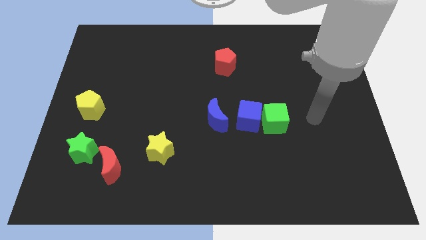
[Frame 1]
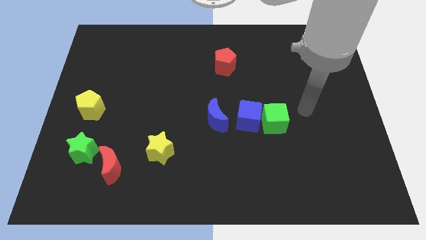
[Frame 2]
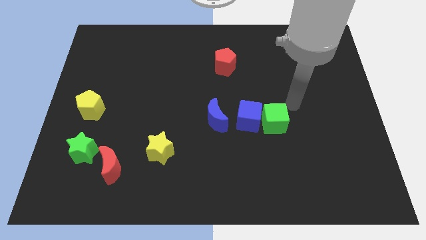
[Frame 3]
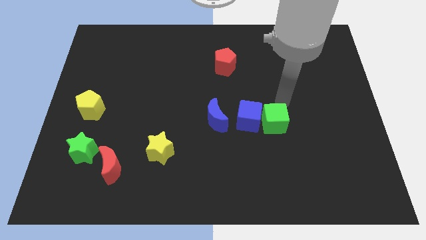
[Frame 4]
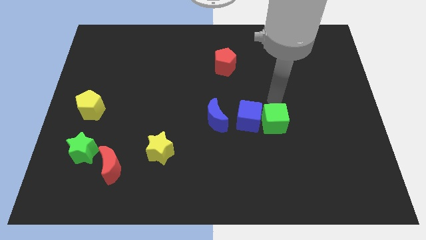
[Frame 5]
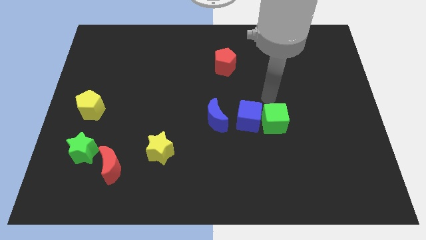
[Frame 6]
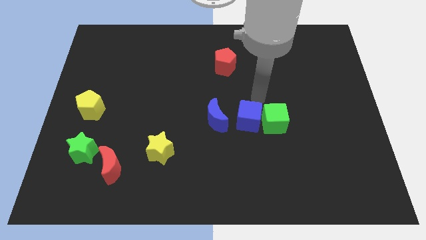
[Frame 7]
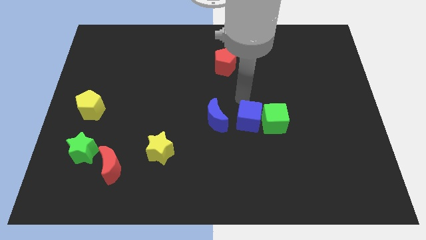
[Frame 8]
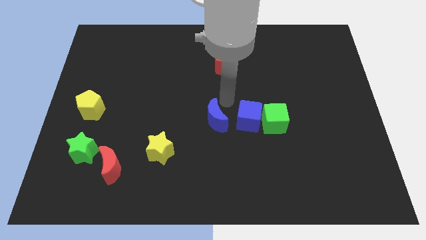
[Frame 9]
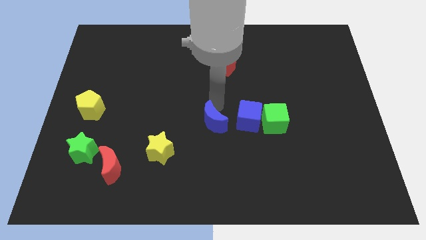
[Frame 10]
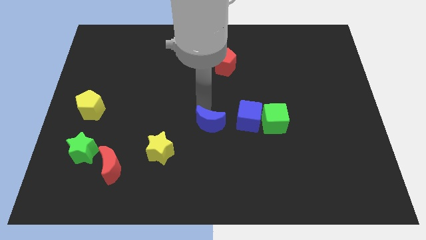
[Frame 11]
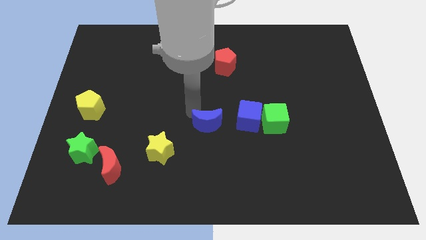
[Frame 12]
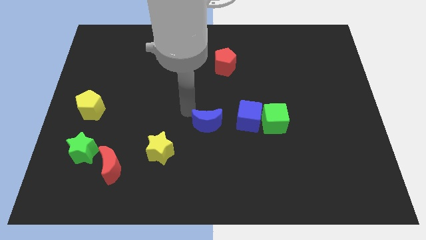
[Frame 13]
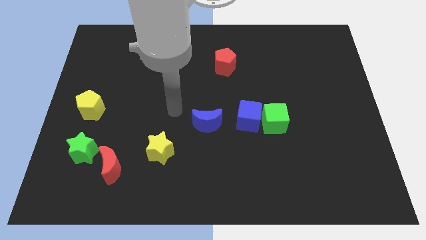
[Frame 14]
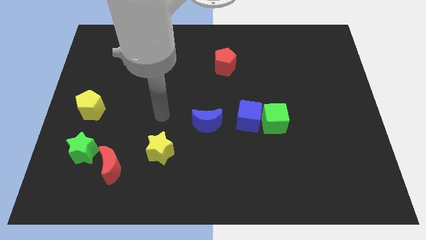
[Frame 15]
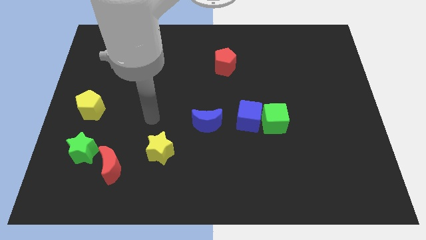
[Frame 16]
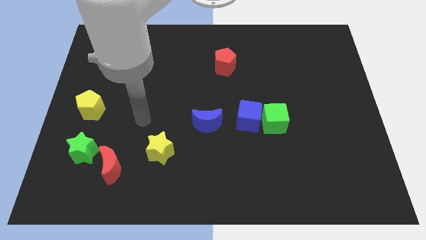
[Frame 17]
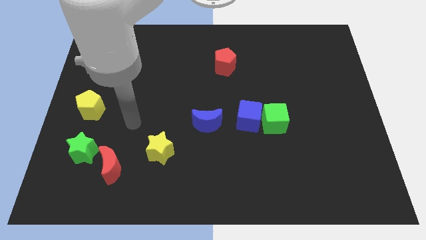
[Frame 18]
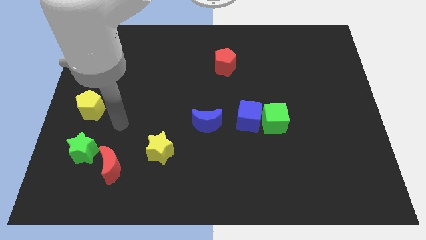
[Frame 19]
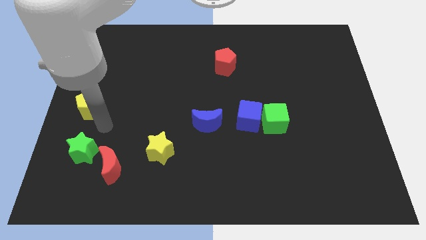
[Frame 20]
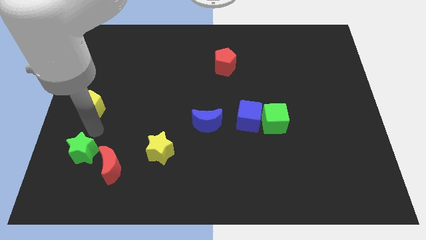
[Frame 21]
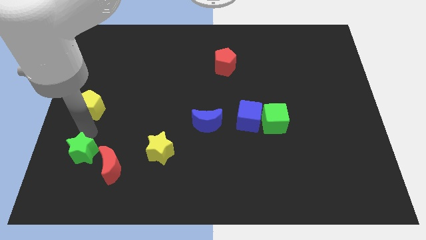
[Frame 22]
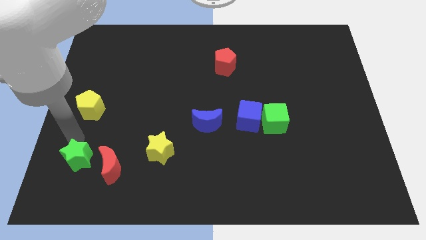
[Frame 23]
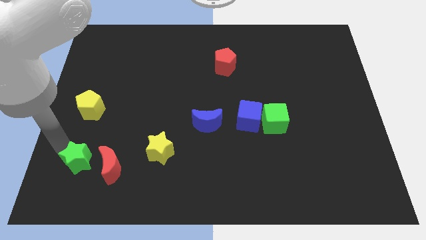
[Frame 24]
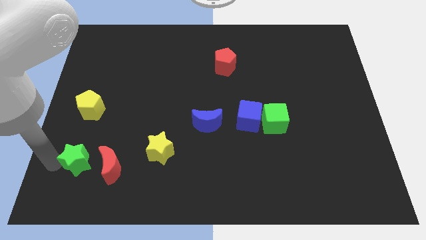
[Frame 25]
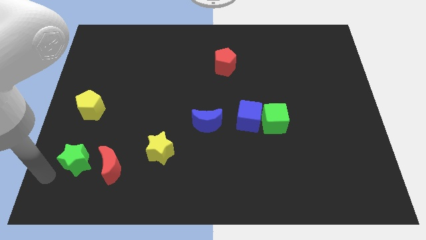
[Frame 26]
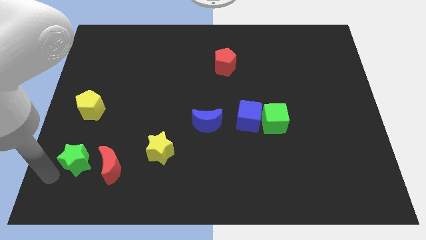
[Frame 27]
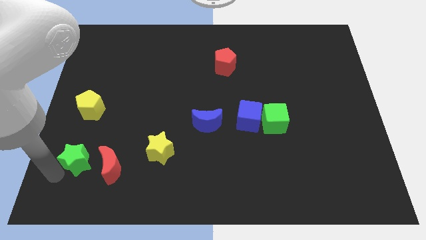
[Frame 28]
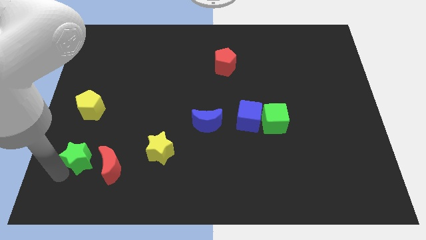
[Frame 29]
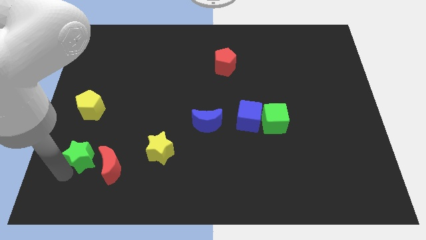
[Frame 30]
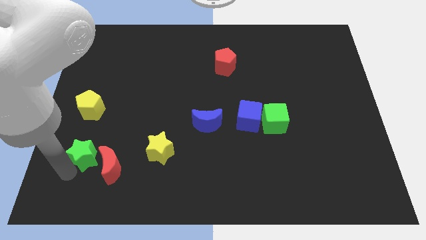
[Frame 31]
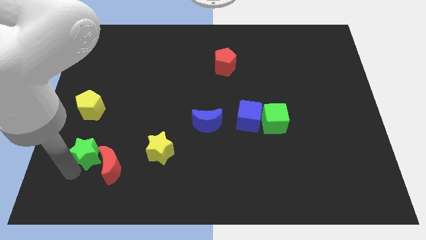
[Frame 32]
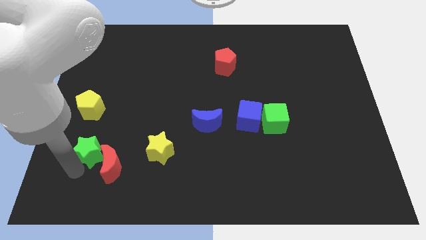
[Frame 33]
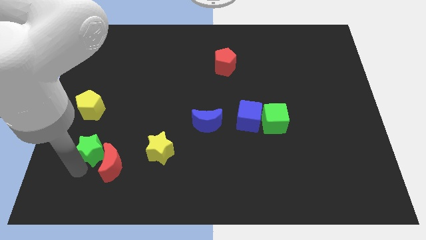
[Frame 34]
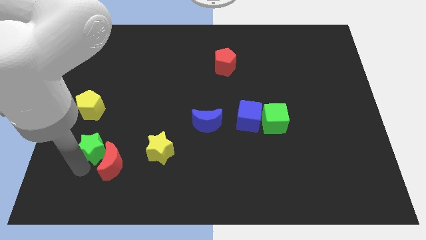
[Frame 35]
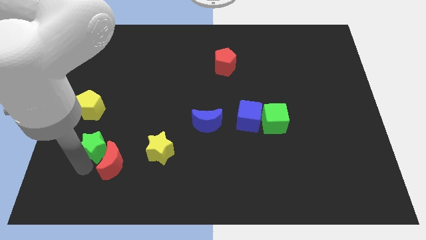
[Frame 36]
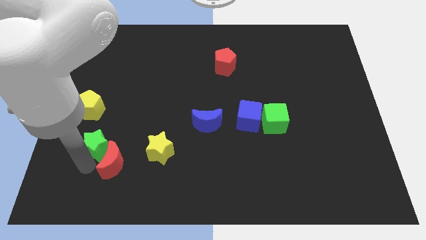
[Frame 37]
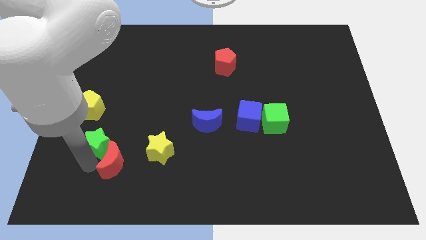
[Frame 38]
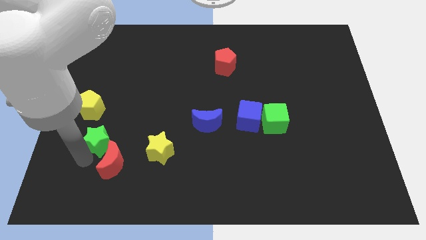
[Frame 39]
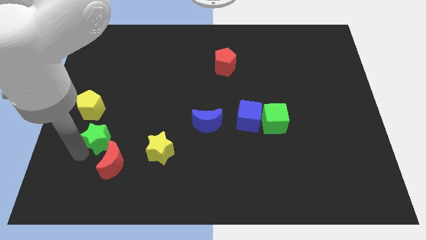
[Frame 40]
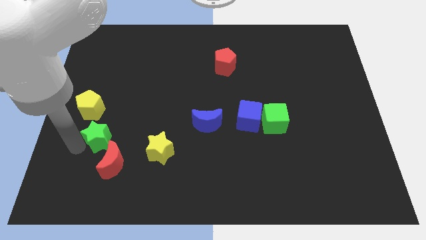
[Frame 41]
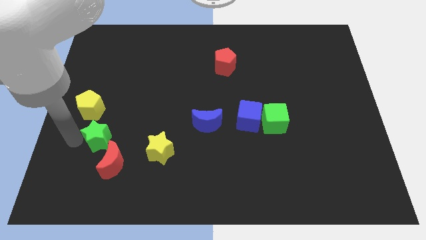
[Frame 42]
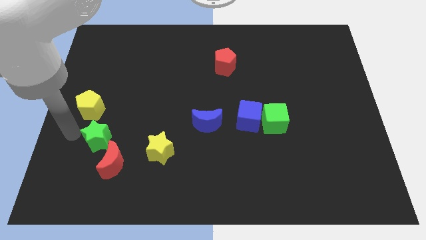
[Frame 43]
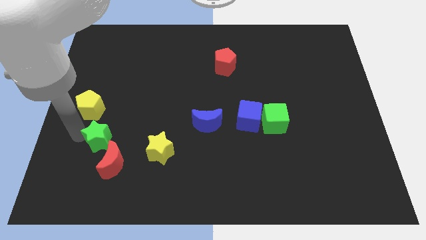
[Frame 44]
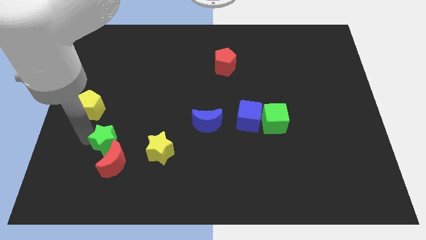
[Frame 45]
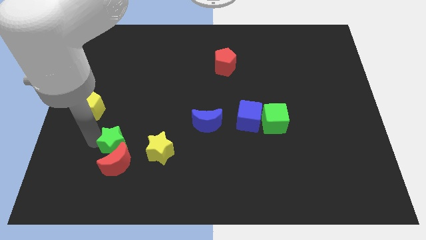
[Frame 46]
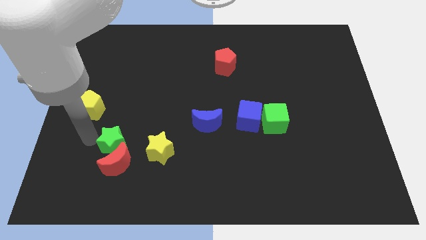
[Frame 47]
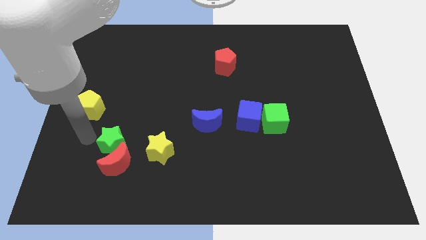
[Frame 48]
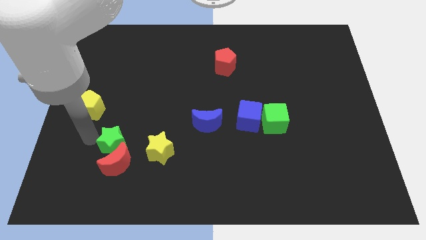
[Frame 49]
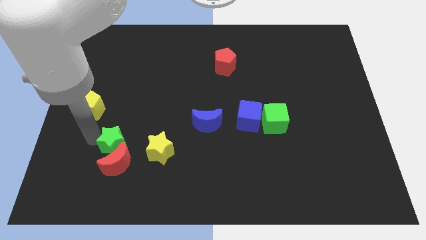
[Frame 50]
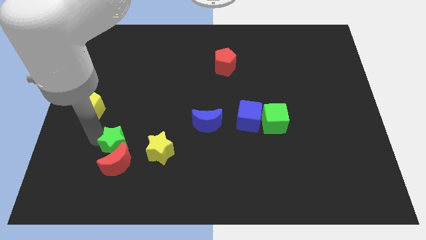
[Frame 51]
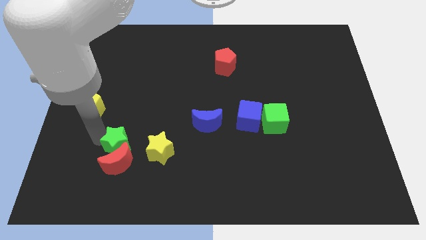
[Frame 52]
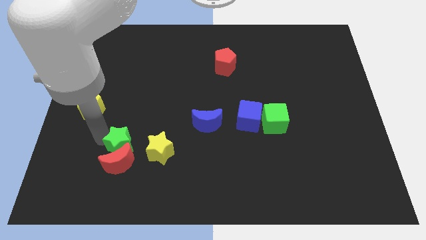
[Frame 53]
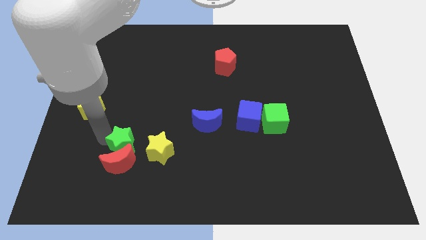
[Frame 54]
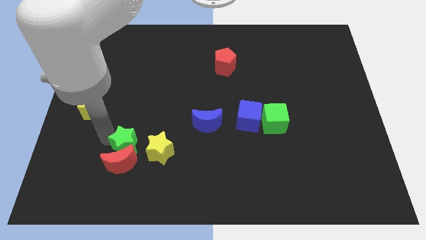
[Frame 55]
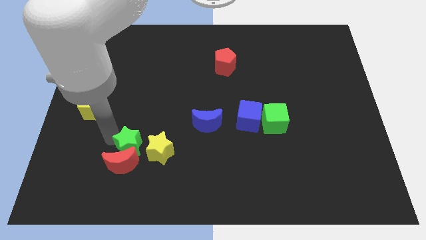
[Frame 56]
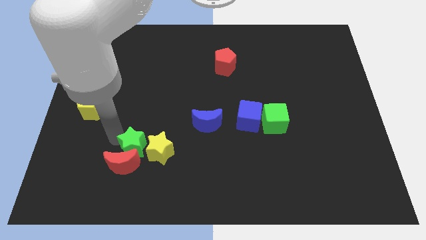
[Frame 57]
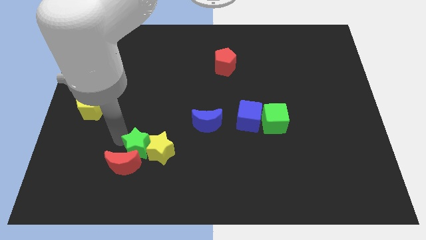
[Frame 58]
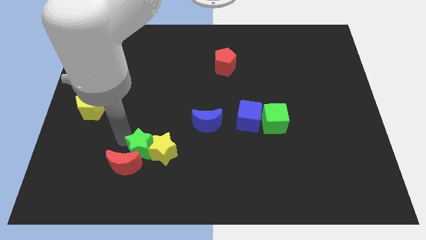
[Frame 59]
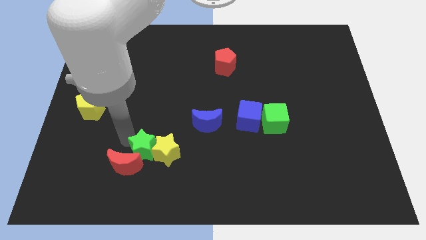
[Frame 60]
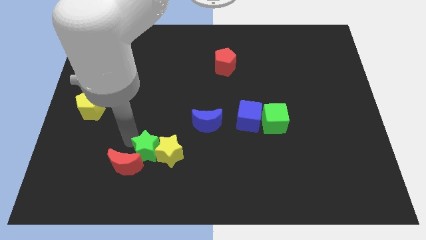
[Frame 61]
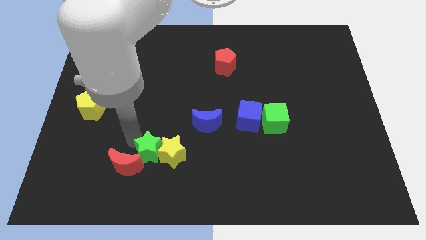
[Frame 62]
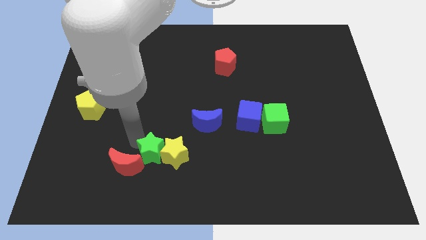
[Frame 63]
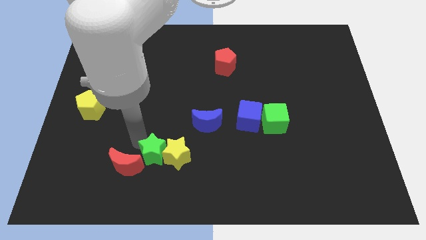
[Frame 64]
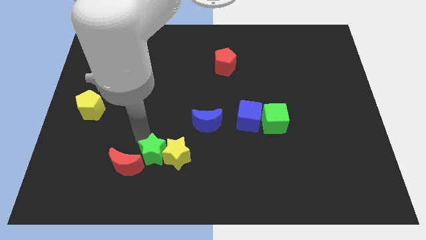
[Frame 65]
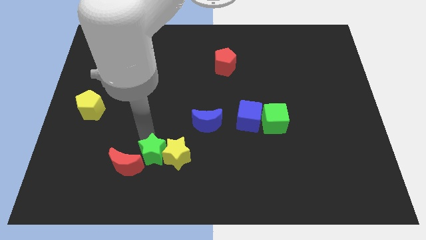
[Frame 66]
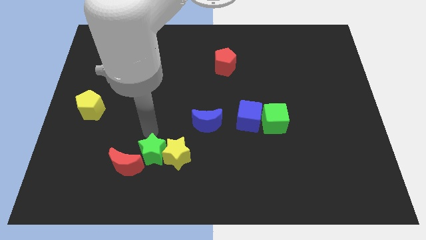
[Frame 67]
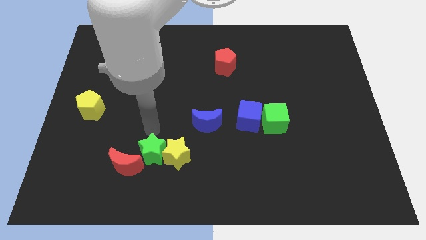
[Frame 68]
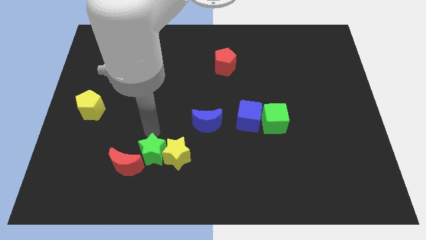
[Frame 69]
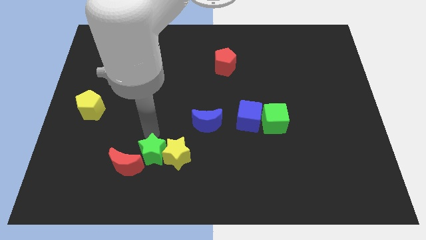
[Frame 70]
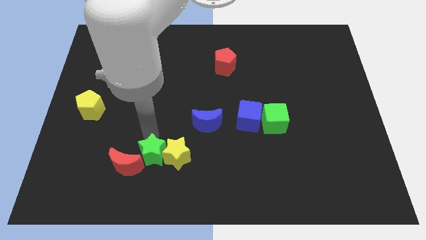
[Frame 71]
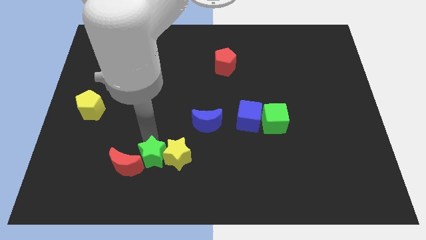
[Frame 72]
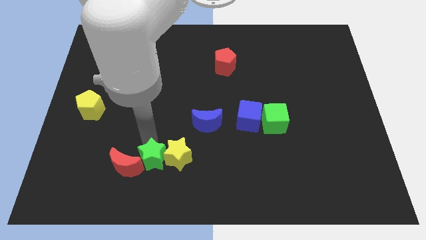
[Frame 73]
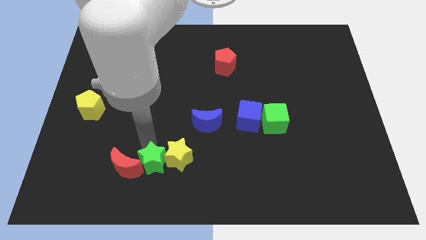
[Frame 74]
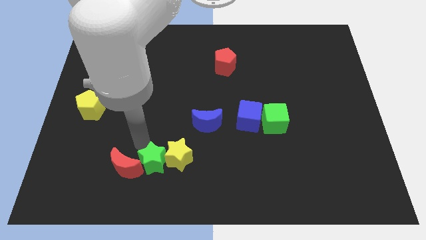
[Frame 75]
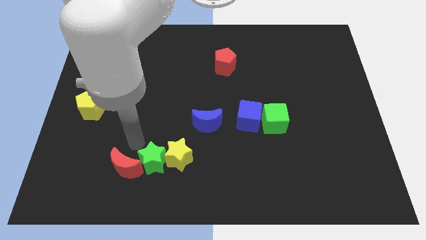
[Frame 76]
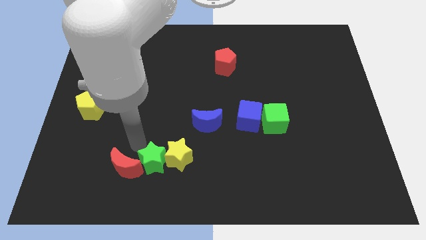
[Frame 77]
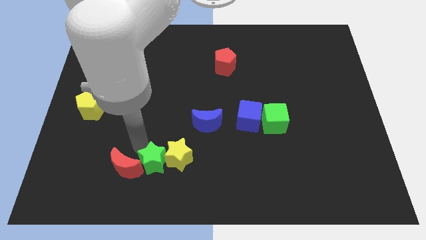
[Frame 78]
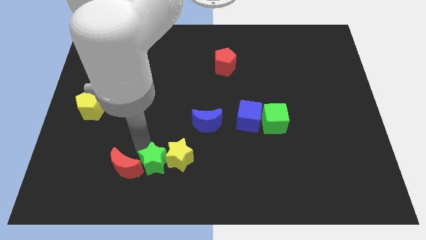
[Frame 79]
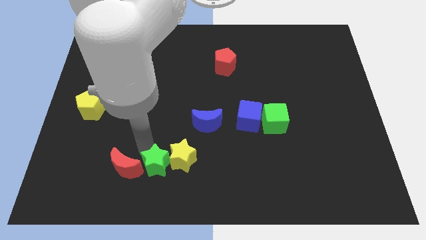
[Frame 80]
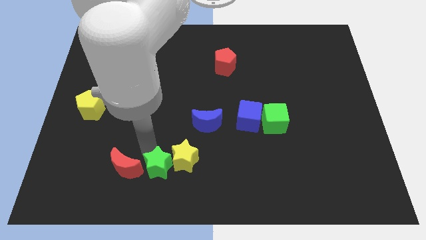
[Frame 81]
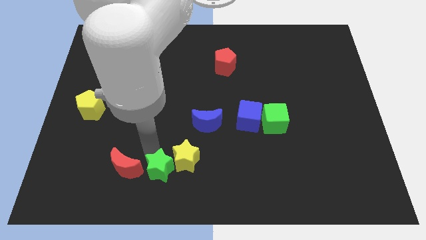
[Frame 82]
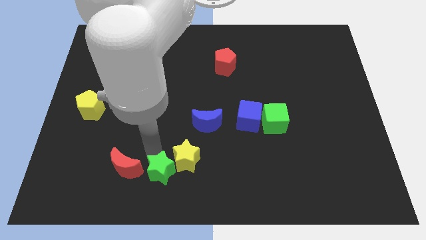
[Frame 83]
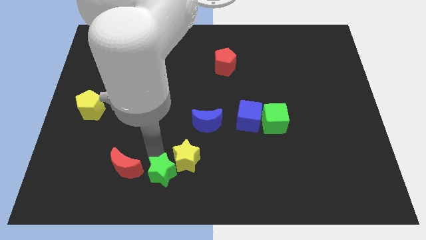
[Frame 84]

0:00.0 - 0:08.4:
slide the green star to the bottom
